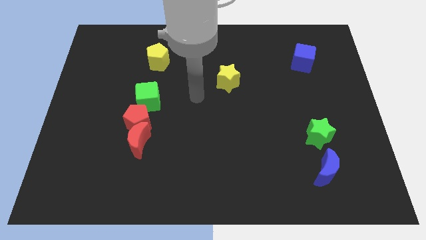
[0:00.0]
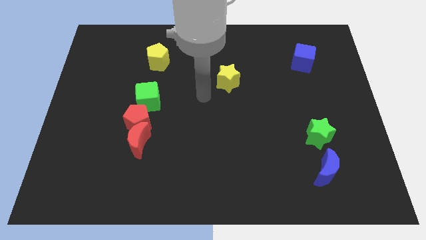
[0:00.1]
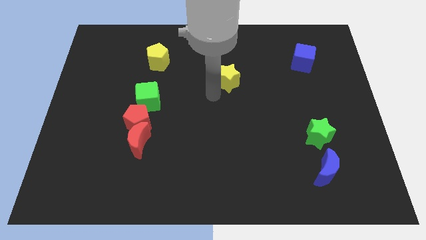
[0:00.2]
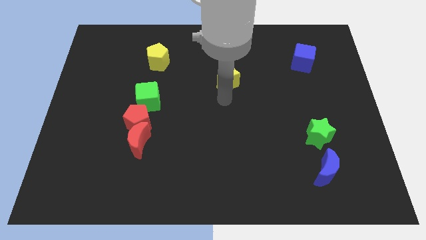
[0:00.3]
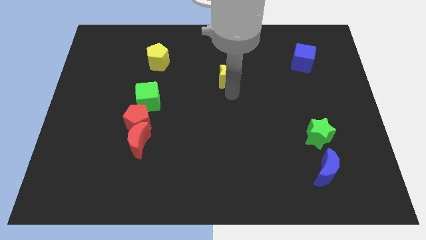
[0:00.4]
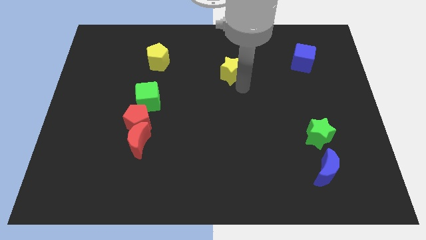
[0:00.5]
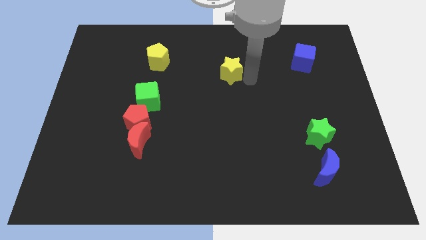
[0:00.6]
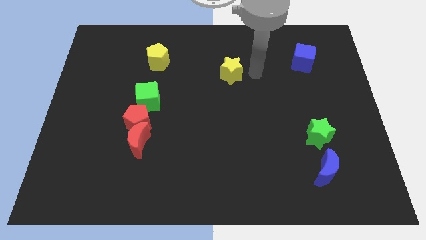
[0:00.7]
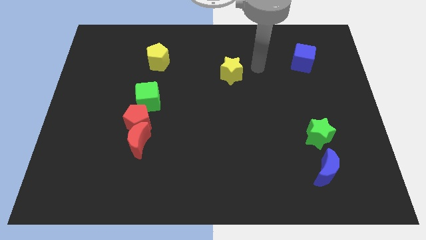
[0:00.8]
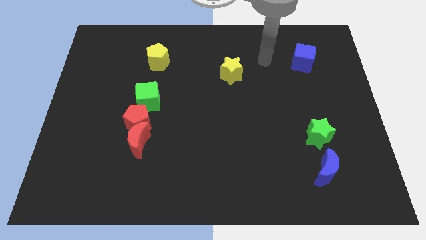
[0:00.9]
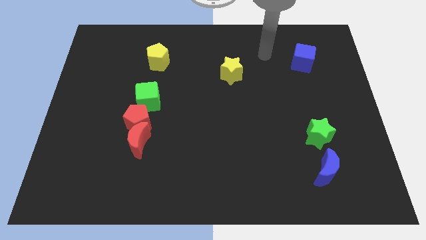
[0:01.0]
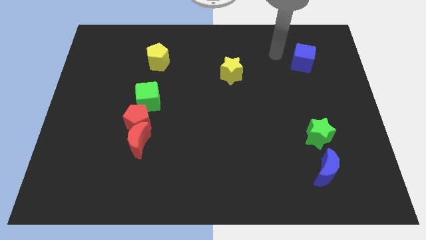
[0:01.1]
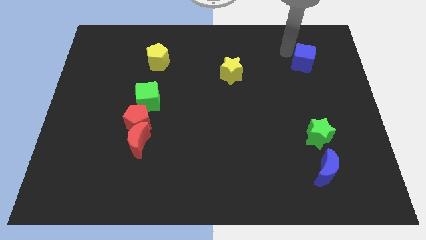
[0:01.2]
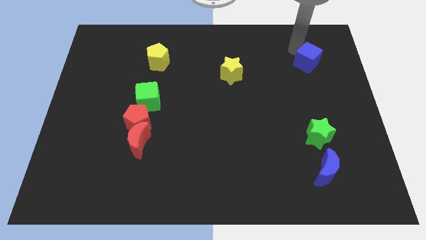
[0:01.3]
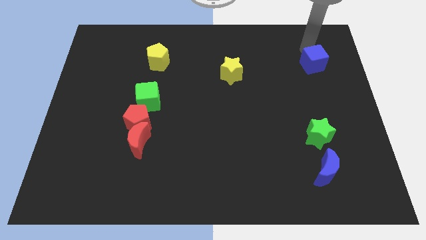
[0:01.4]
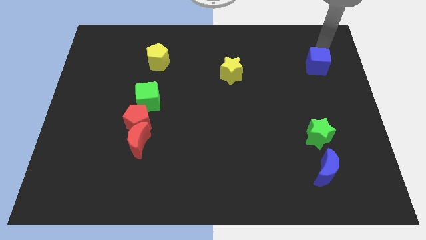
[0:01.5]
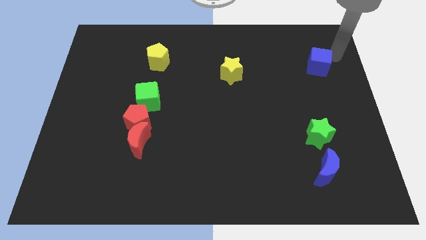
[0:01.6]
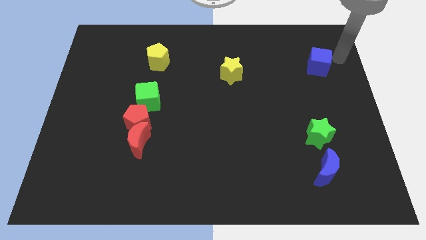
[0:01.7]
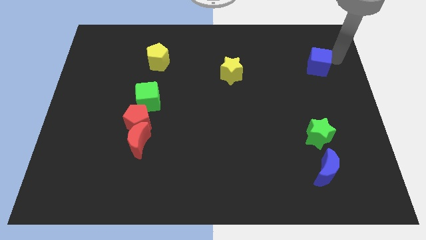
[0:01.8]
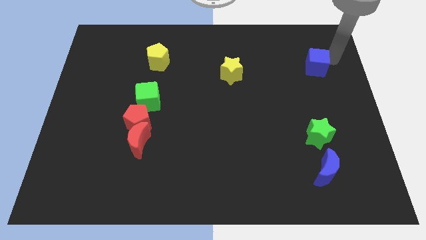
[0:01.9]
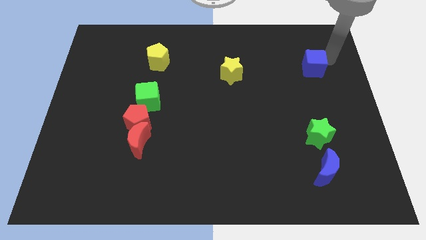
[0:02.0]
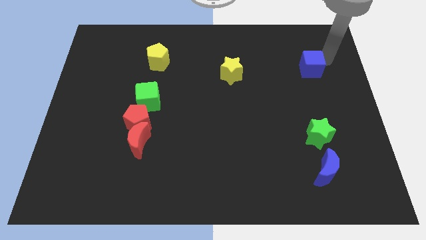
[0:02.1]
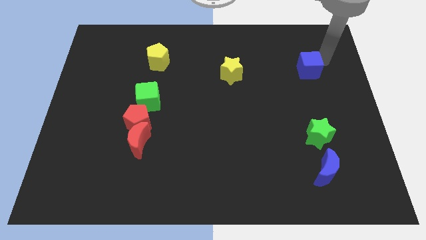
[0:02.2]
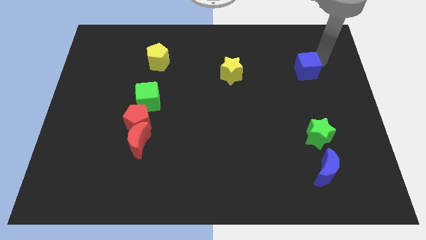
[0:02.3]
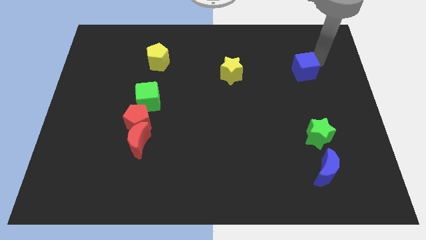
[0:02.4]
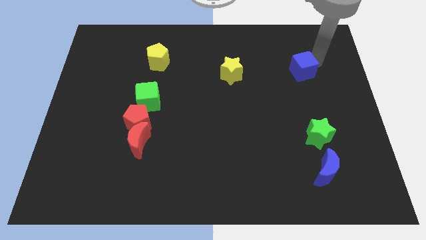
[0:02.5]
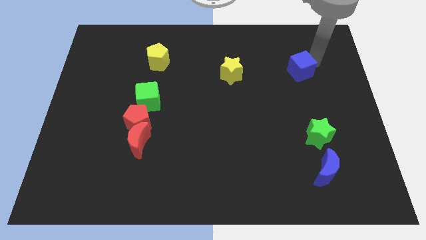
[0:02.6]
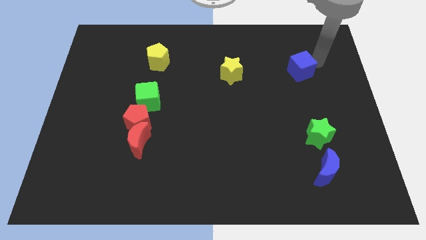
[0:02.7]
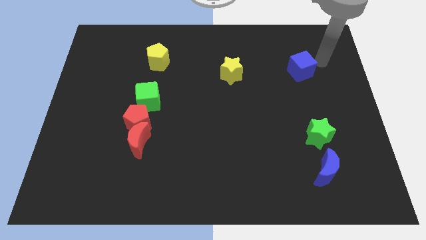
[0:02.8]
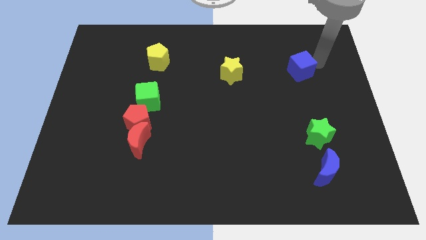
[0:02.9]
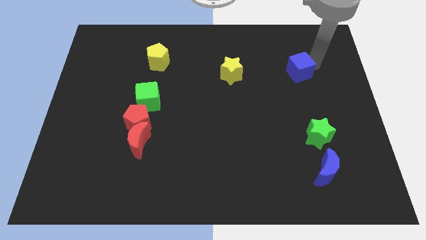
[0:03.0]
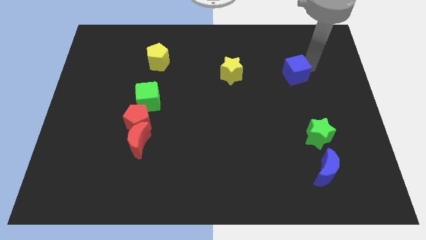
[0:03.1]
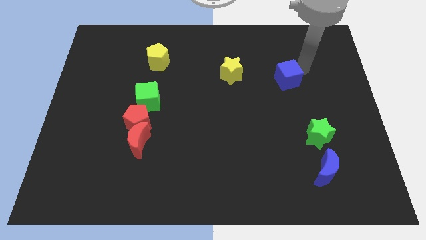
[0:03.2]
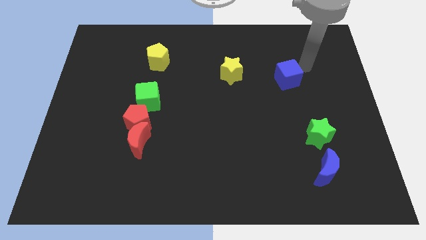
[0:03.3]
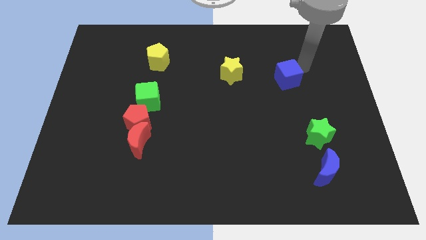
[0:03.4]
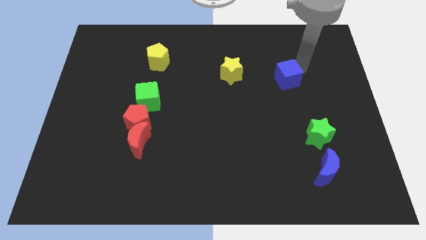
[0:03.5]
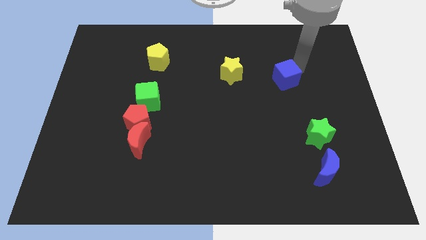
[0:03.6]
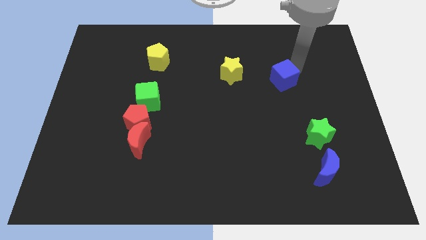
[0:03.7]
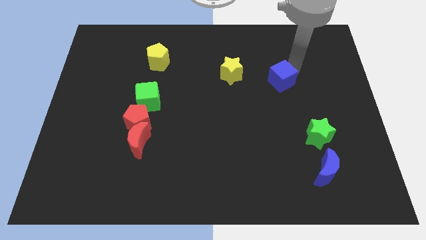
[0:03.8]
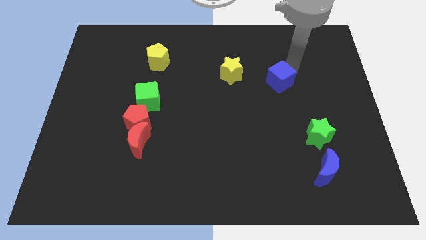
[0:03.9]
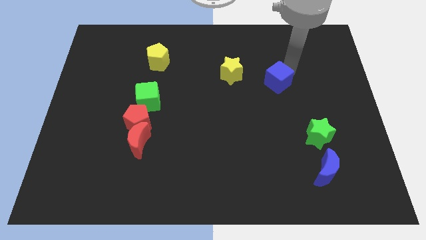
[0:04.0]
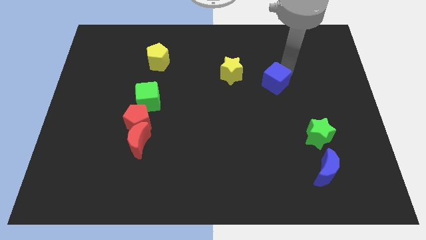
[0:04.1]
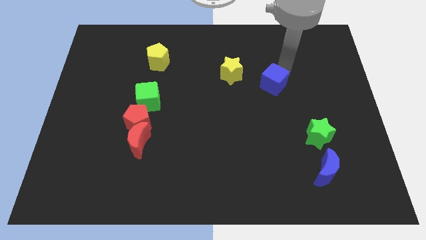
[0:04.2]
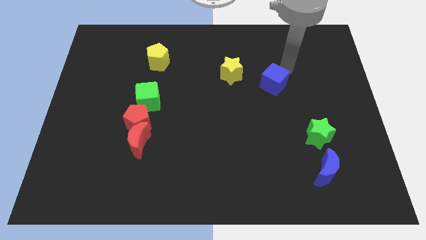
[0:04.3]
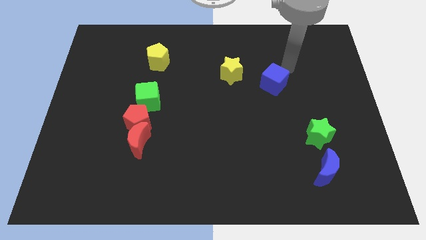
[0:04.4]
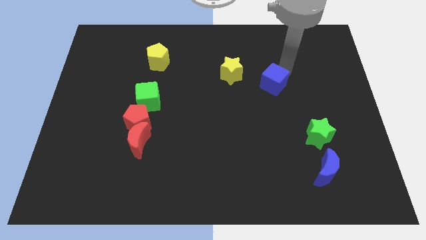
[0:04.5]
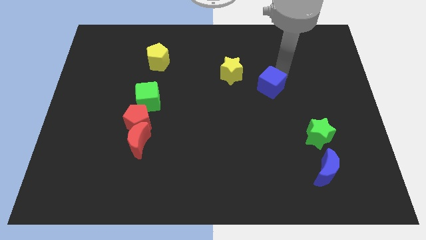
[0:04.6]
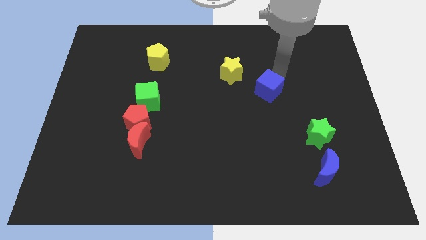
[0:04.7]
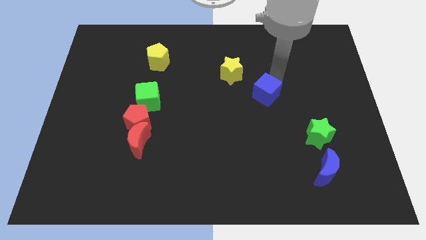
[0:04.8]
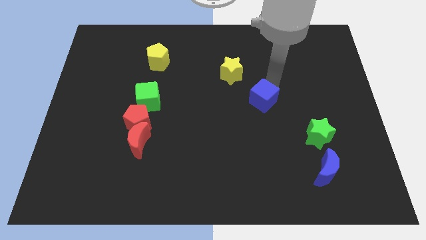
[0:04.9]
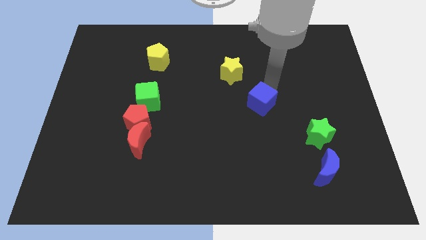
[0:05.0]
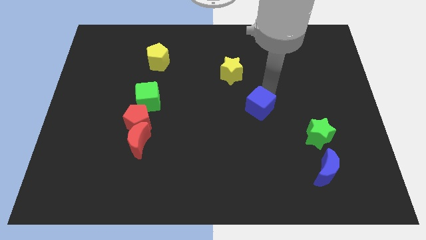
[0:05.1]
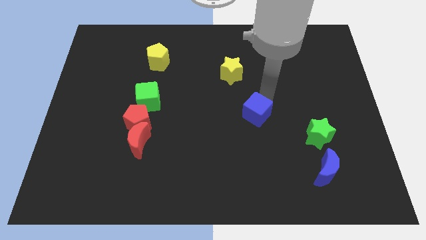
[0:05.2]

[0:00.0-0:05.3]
move the blue cube diagonally downwards and to the left

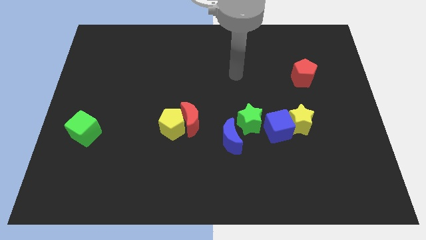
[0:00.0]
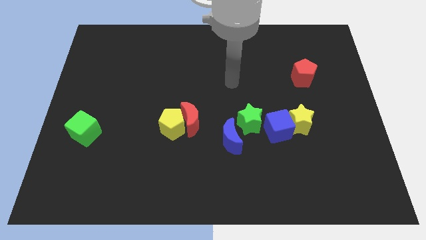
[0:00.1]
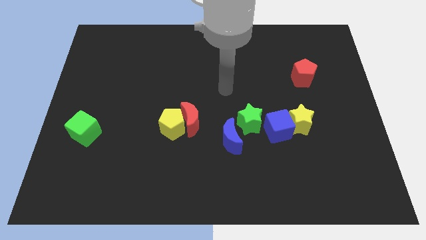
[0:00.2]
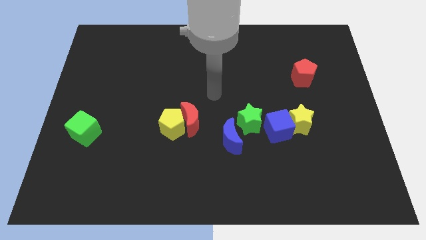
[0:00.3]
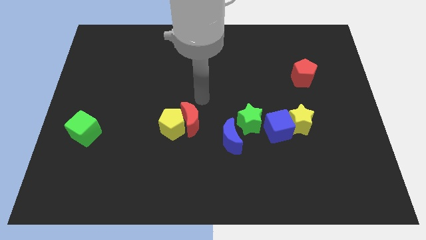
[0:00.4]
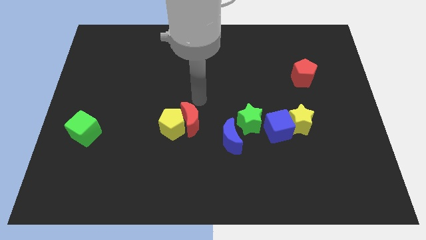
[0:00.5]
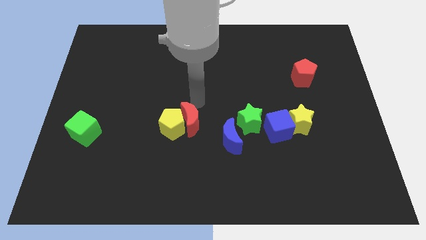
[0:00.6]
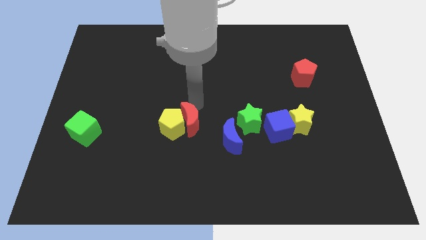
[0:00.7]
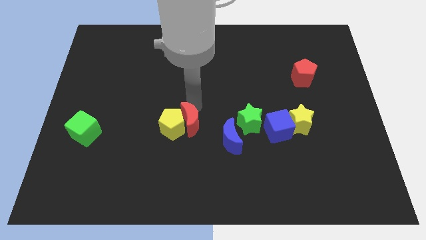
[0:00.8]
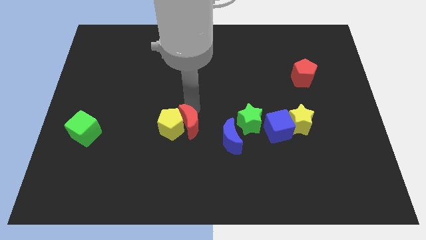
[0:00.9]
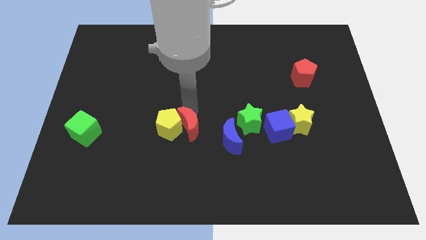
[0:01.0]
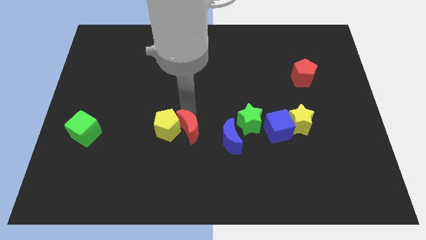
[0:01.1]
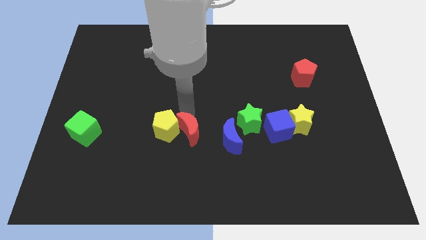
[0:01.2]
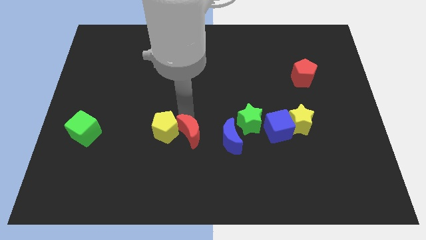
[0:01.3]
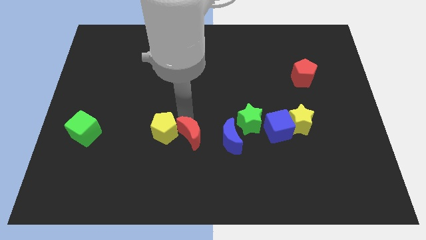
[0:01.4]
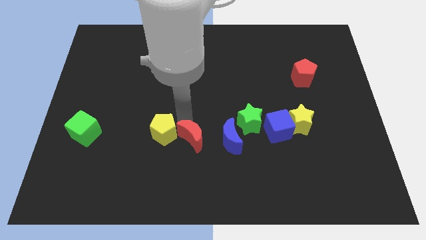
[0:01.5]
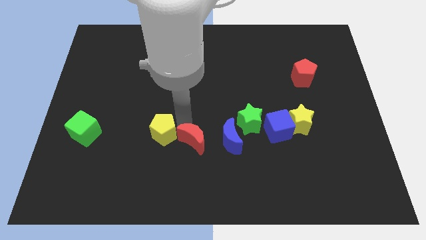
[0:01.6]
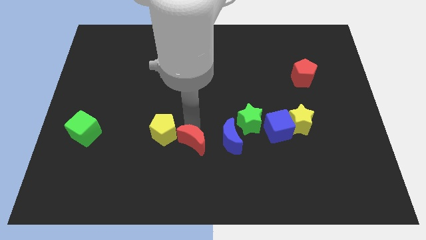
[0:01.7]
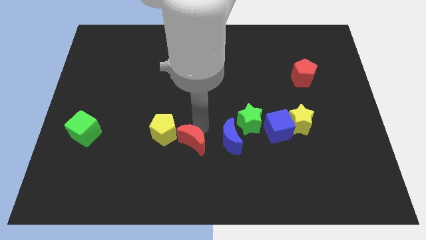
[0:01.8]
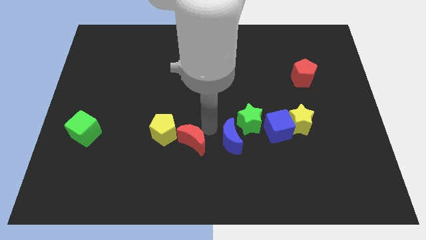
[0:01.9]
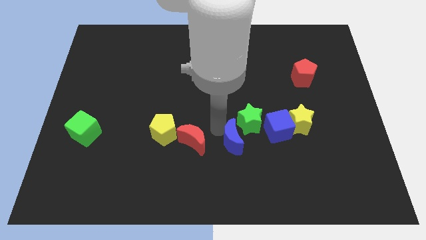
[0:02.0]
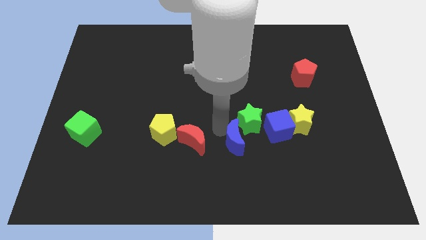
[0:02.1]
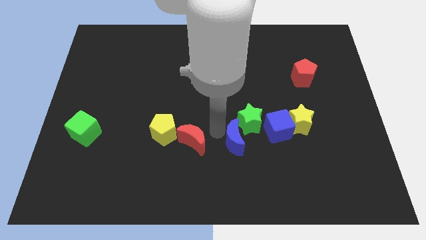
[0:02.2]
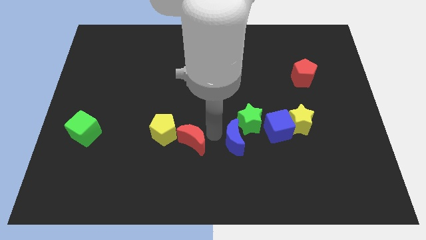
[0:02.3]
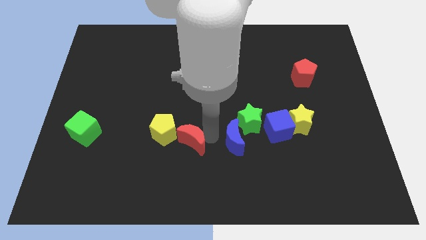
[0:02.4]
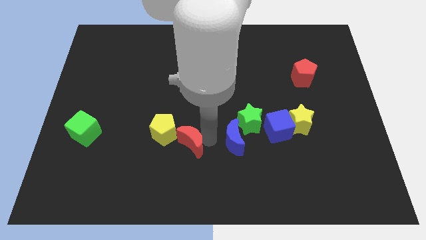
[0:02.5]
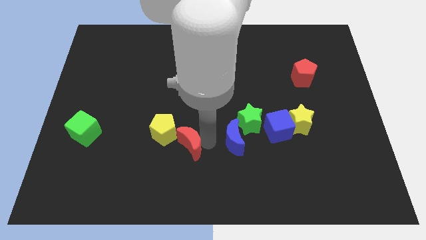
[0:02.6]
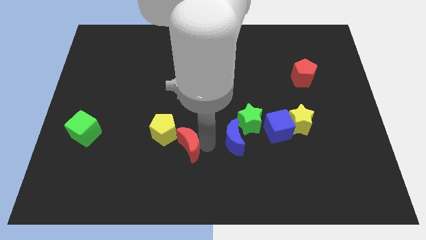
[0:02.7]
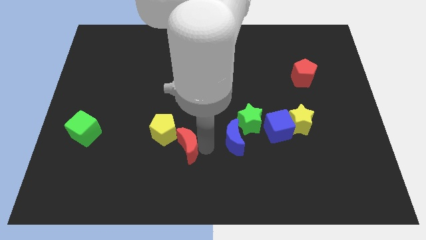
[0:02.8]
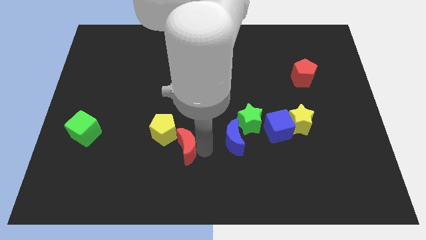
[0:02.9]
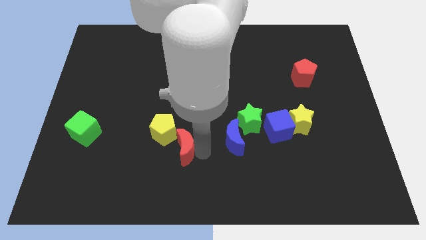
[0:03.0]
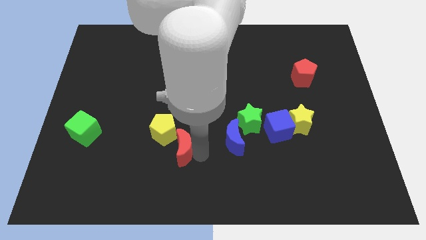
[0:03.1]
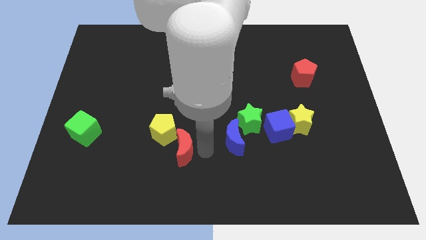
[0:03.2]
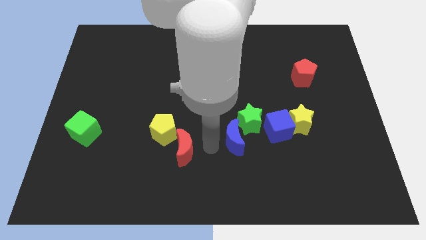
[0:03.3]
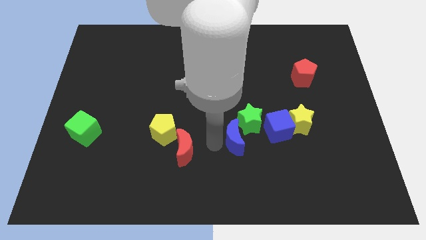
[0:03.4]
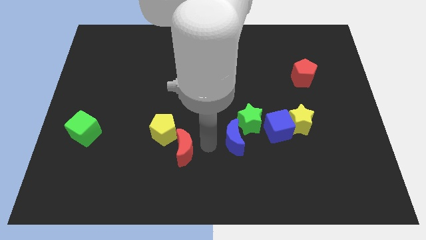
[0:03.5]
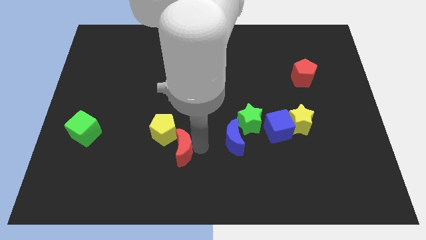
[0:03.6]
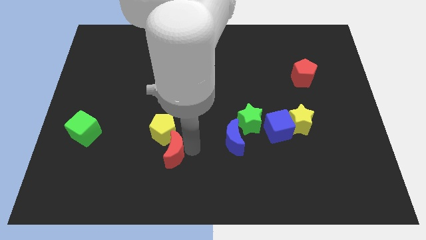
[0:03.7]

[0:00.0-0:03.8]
slide the red moon a little diagonally downwards and left
